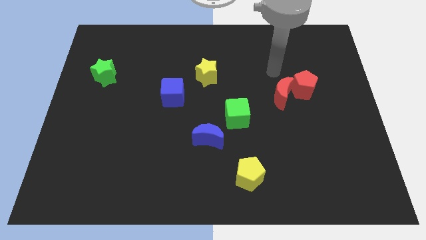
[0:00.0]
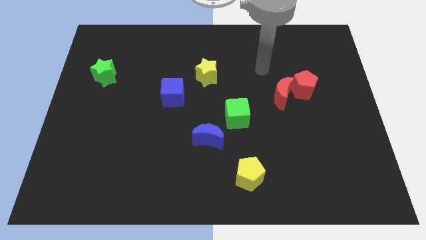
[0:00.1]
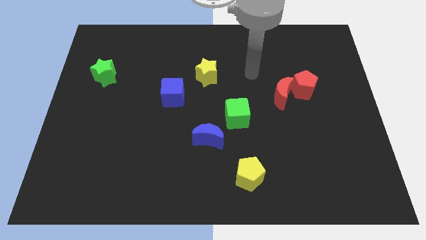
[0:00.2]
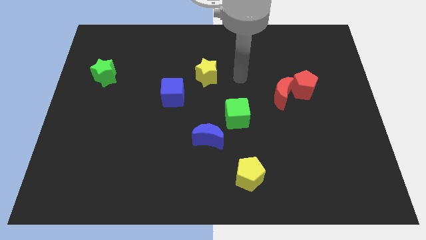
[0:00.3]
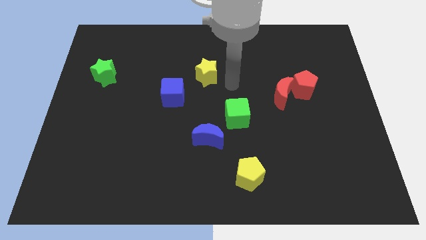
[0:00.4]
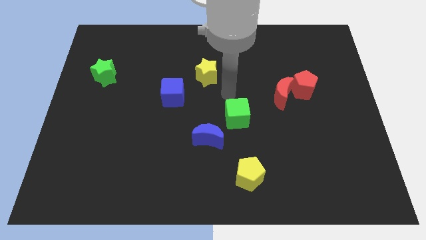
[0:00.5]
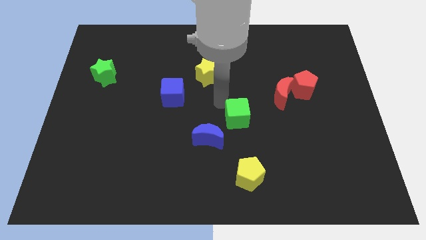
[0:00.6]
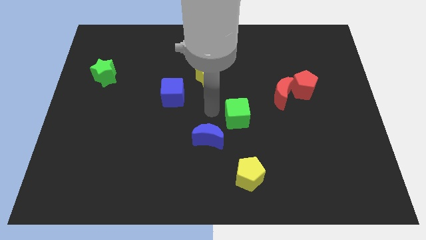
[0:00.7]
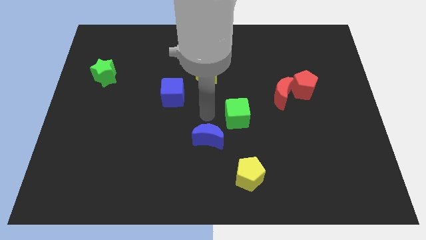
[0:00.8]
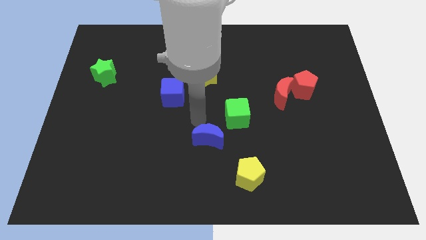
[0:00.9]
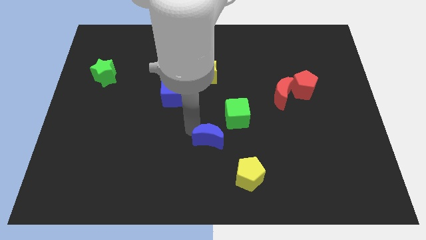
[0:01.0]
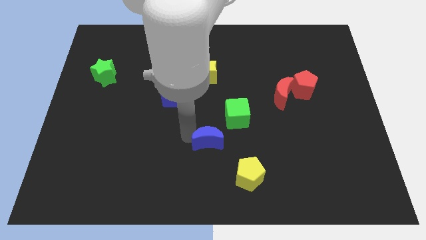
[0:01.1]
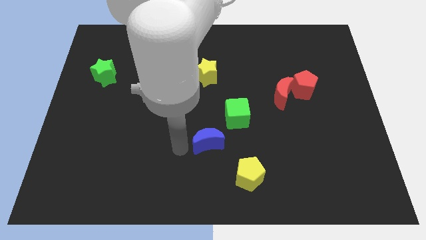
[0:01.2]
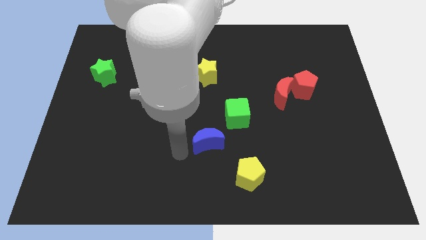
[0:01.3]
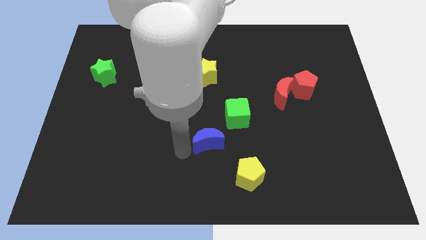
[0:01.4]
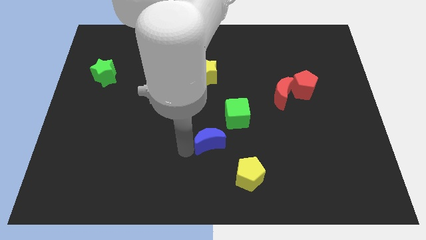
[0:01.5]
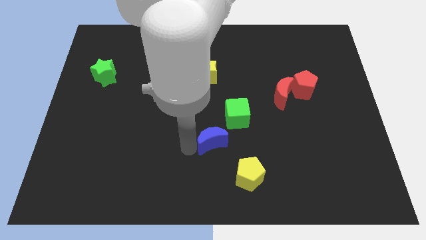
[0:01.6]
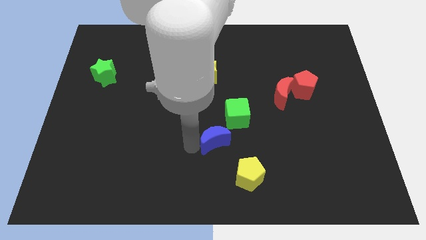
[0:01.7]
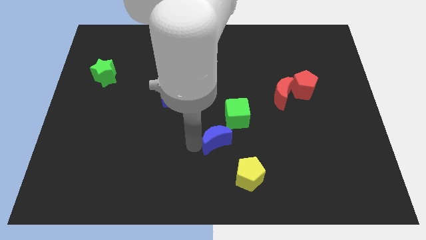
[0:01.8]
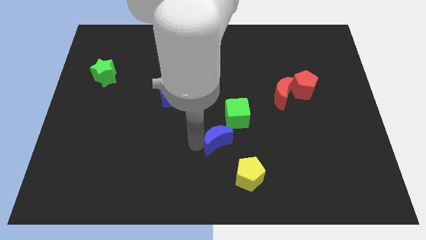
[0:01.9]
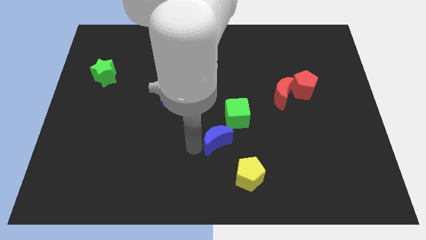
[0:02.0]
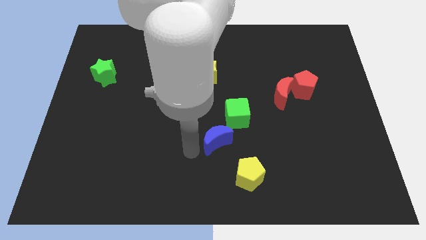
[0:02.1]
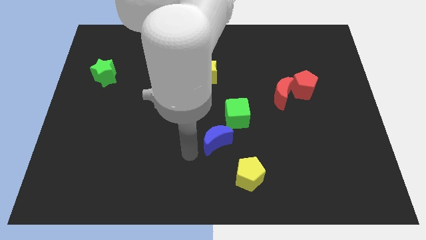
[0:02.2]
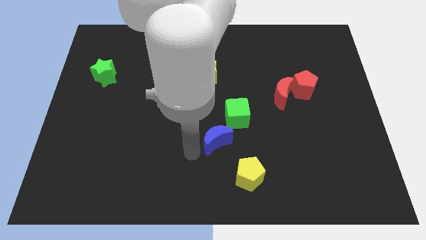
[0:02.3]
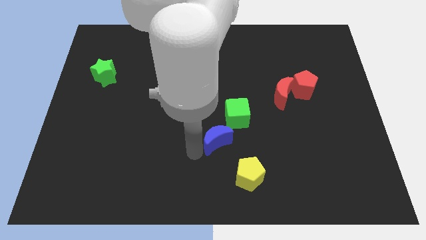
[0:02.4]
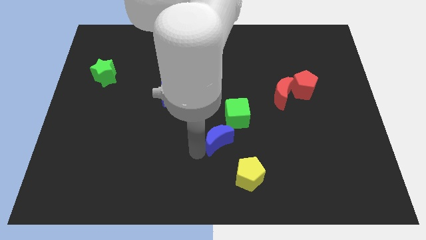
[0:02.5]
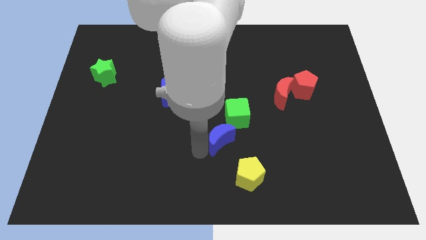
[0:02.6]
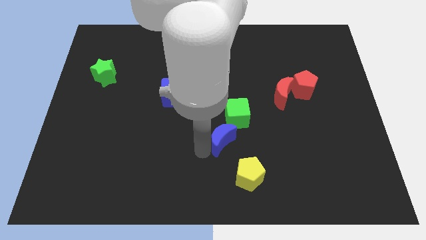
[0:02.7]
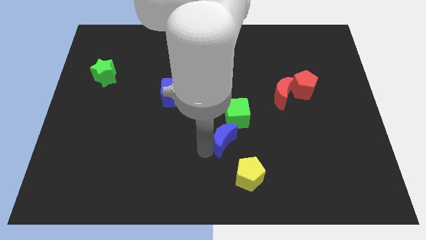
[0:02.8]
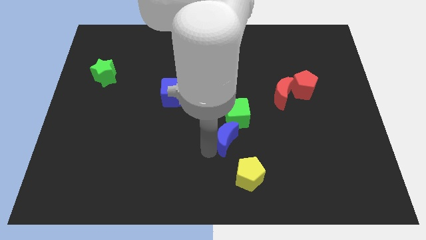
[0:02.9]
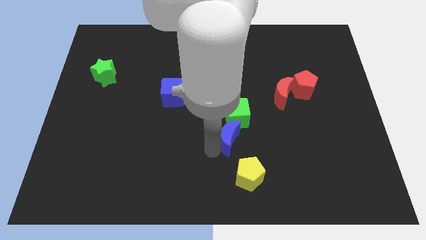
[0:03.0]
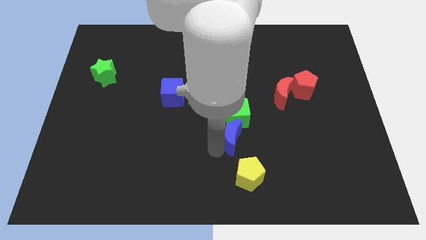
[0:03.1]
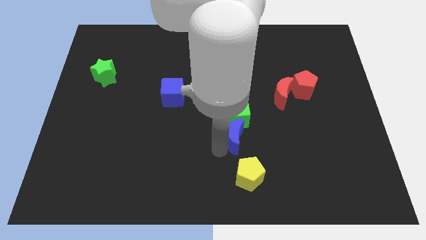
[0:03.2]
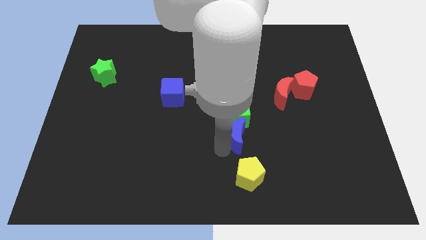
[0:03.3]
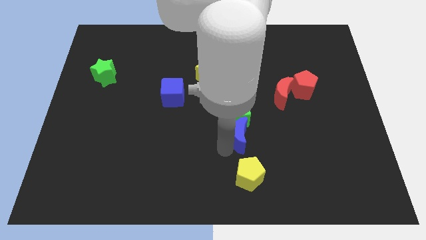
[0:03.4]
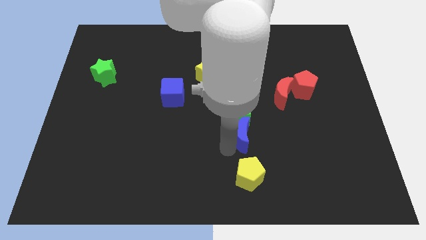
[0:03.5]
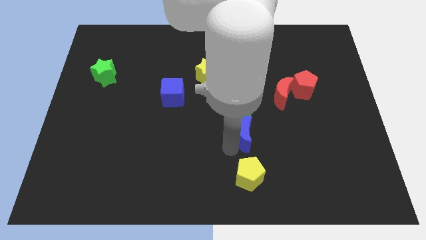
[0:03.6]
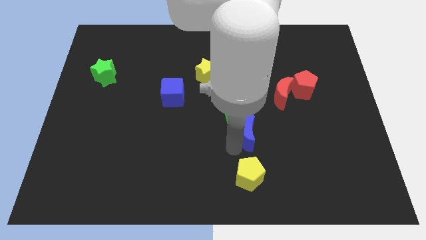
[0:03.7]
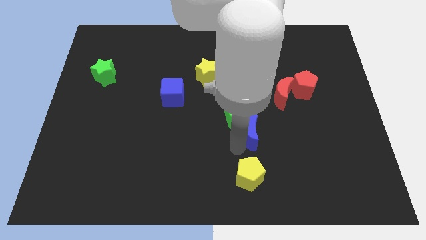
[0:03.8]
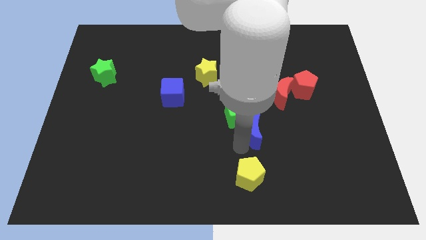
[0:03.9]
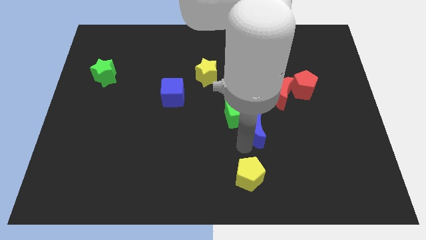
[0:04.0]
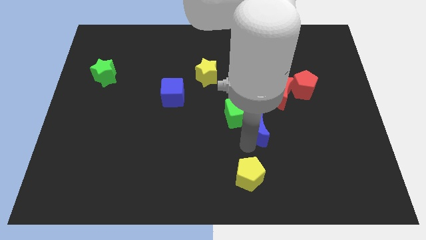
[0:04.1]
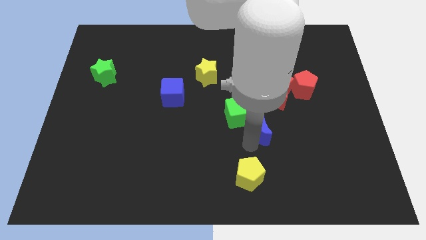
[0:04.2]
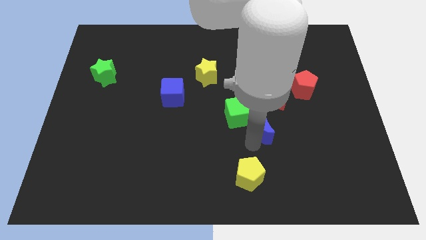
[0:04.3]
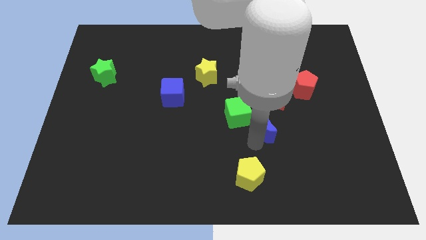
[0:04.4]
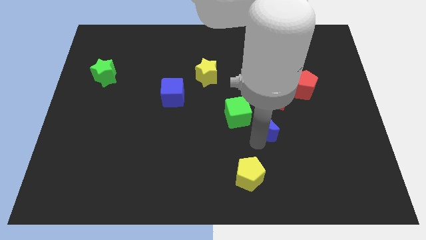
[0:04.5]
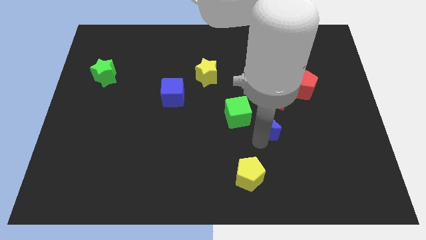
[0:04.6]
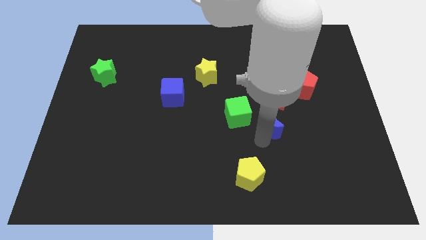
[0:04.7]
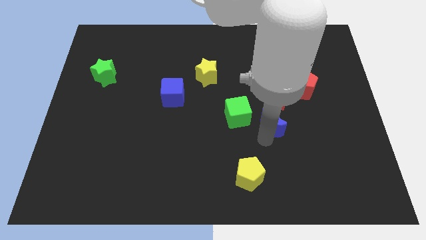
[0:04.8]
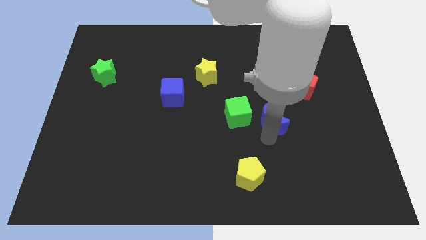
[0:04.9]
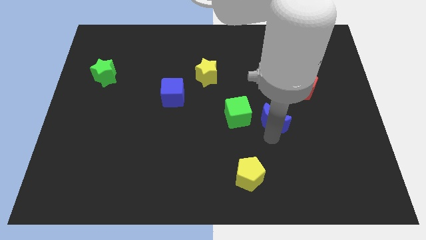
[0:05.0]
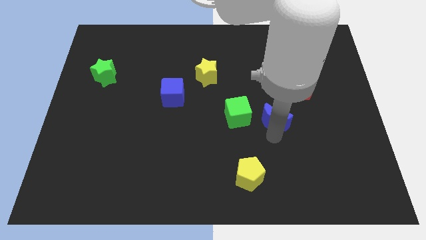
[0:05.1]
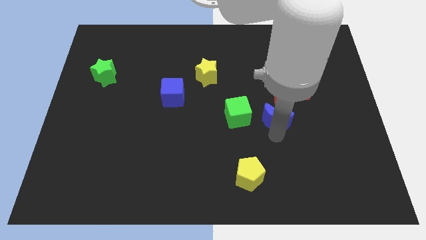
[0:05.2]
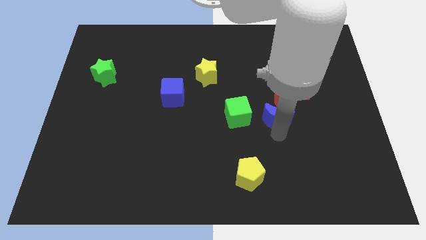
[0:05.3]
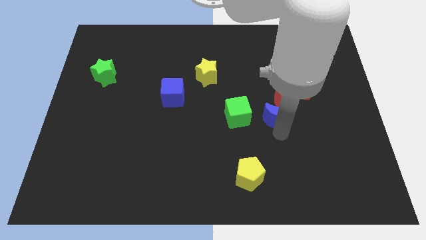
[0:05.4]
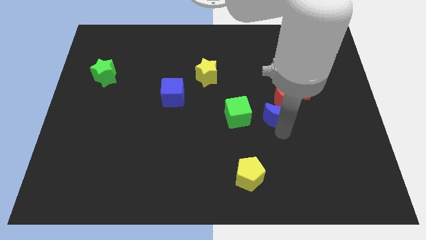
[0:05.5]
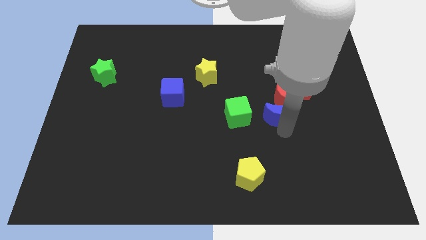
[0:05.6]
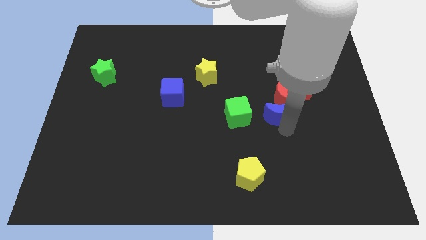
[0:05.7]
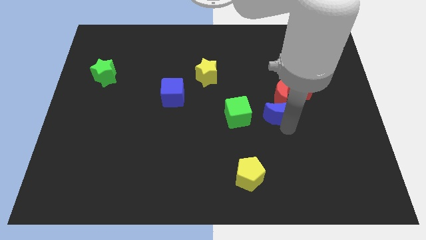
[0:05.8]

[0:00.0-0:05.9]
push the blue moon next to the red moon

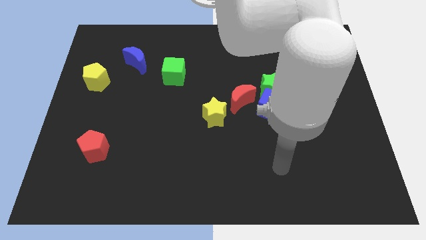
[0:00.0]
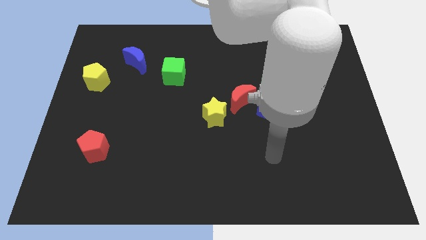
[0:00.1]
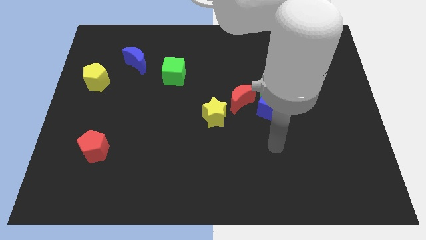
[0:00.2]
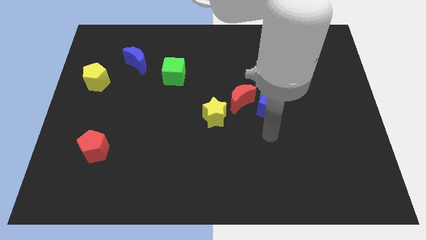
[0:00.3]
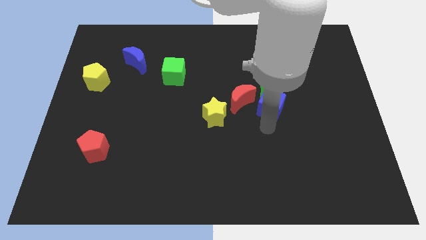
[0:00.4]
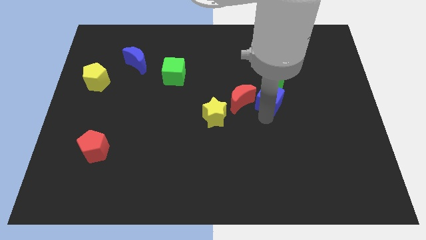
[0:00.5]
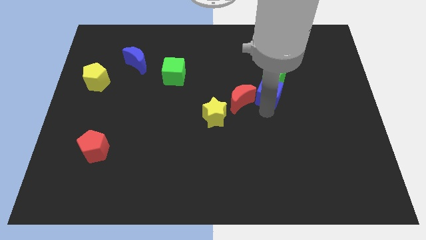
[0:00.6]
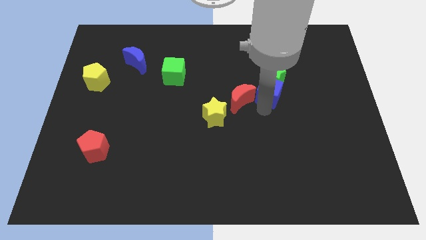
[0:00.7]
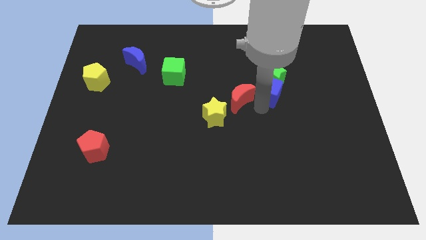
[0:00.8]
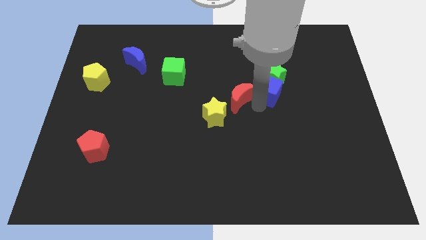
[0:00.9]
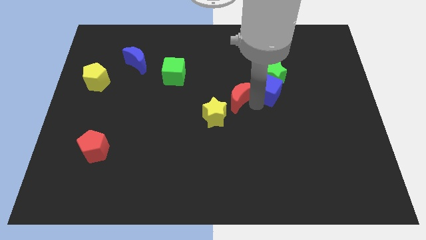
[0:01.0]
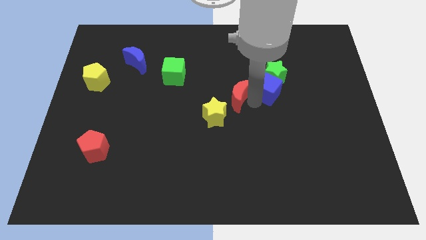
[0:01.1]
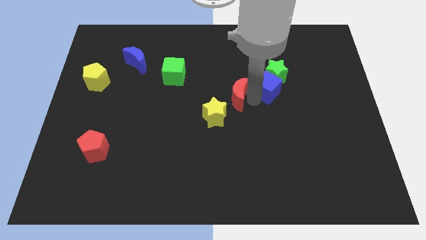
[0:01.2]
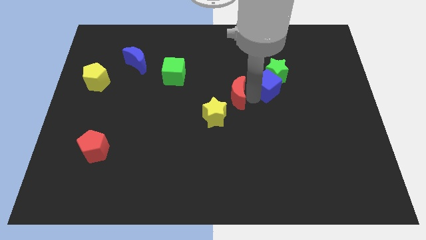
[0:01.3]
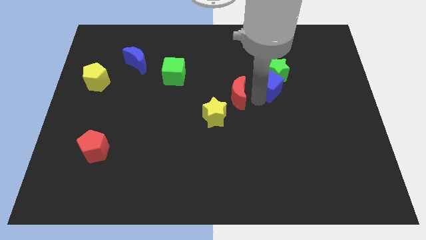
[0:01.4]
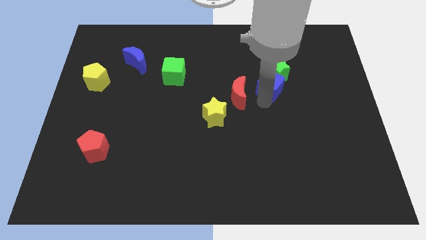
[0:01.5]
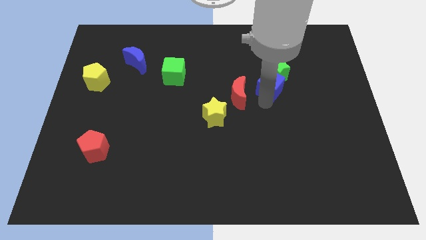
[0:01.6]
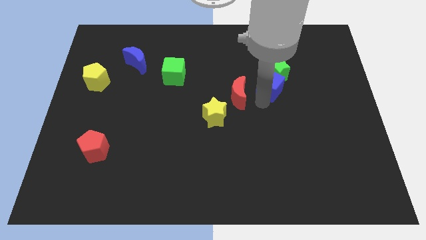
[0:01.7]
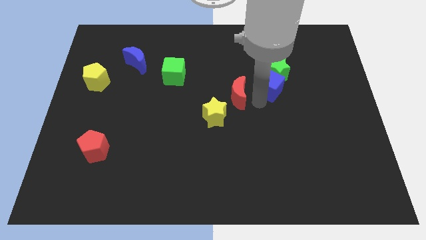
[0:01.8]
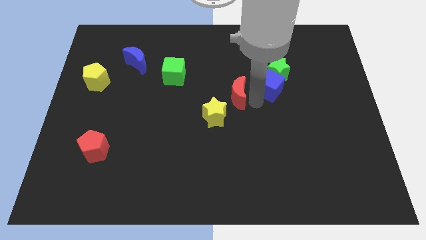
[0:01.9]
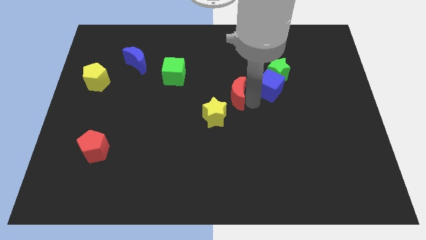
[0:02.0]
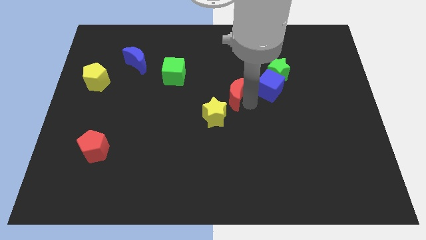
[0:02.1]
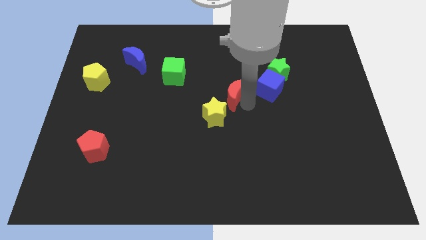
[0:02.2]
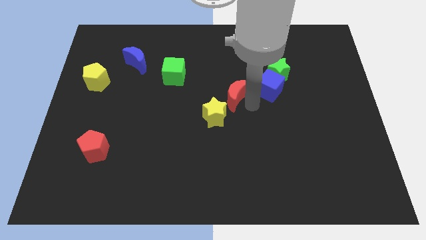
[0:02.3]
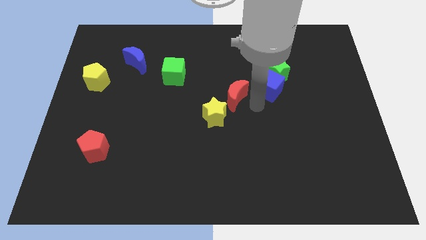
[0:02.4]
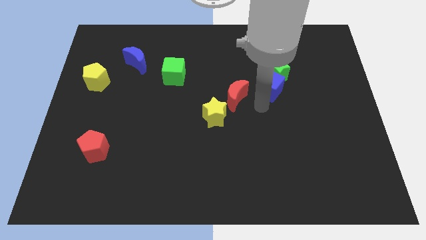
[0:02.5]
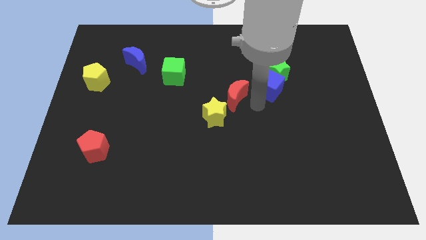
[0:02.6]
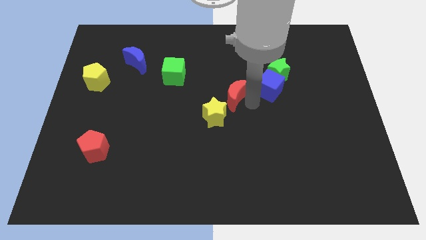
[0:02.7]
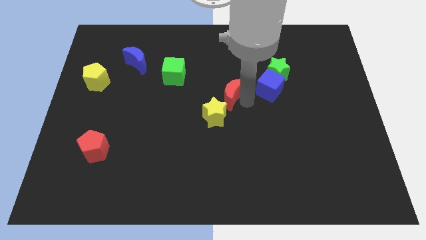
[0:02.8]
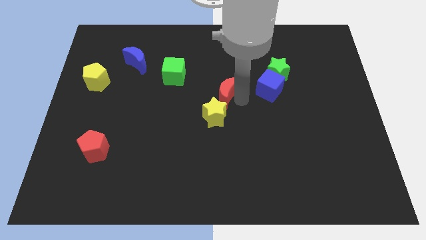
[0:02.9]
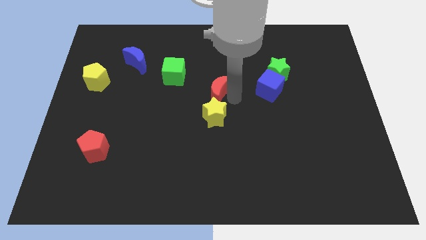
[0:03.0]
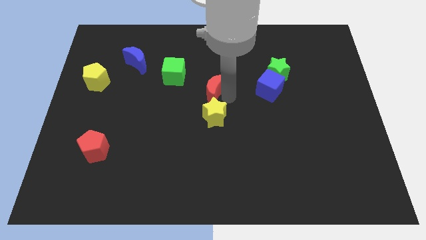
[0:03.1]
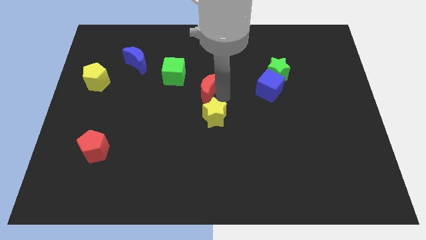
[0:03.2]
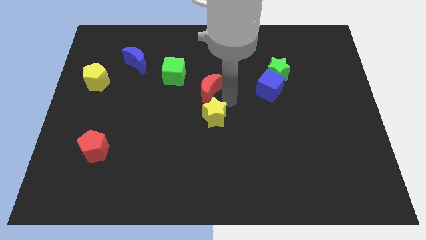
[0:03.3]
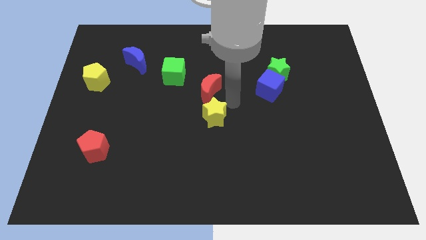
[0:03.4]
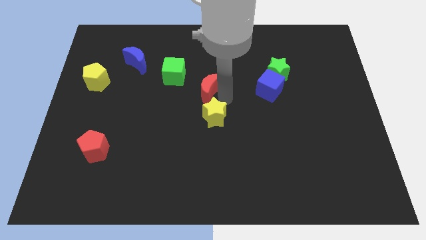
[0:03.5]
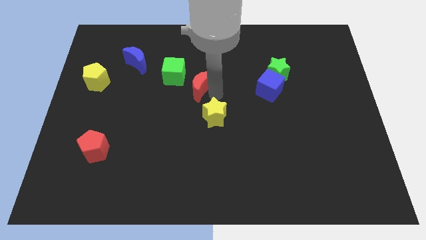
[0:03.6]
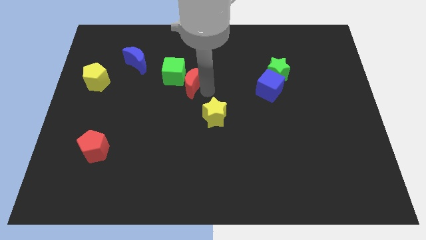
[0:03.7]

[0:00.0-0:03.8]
slide the red moon close to the green cube
